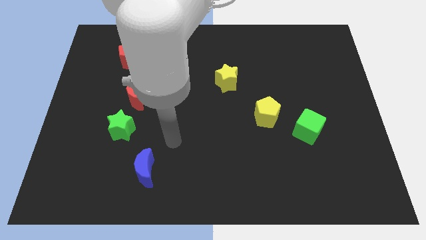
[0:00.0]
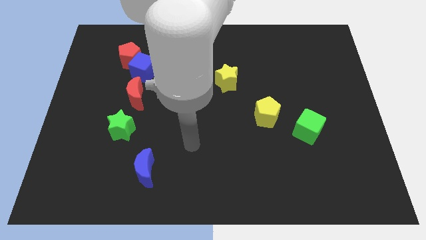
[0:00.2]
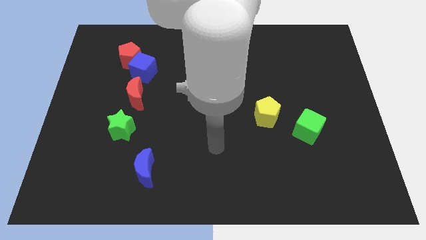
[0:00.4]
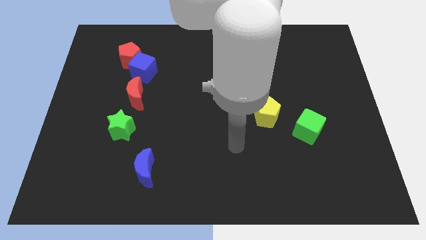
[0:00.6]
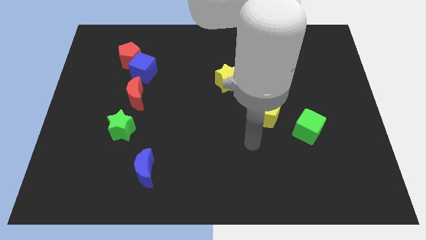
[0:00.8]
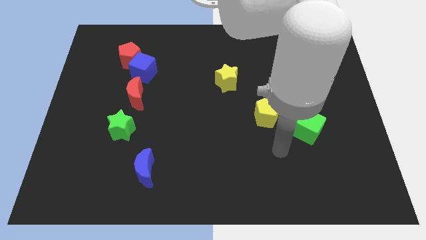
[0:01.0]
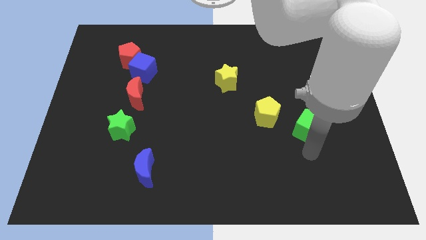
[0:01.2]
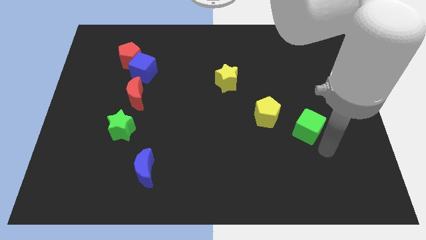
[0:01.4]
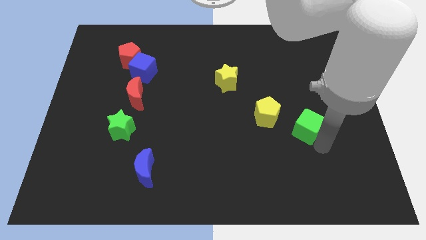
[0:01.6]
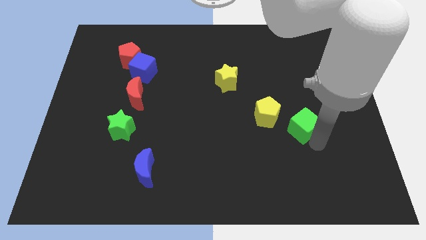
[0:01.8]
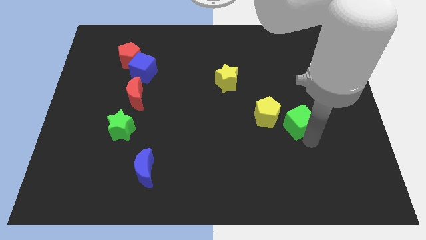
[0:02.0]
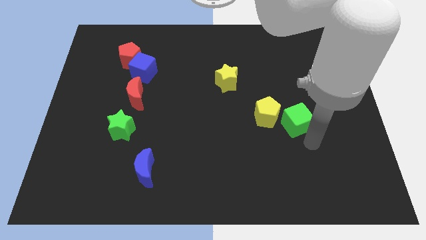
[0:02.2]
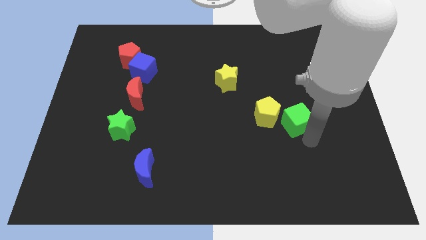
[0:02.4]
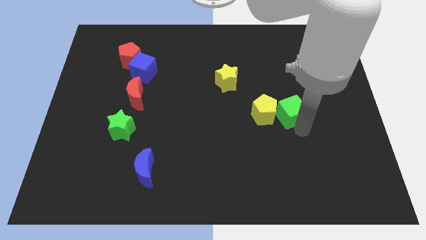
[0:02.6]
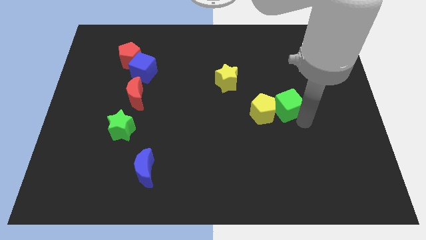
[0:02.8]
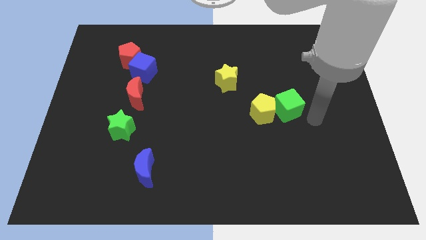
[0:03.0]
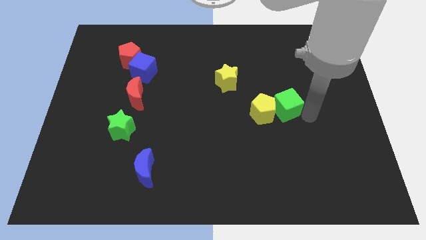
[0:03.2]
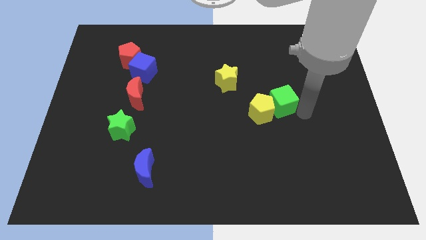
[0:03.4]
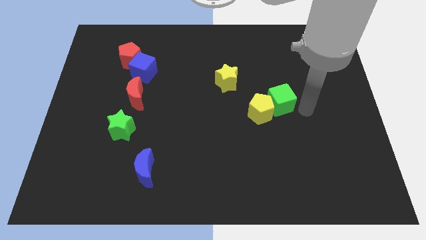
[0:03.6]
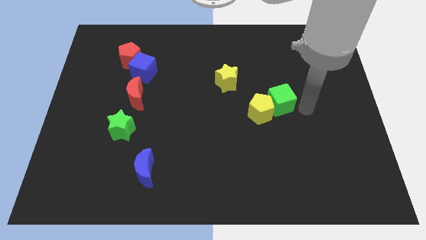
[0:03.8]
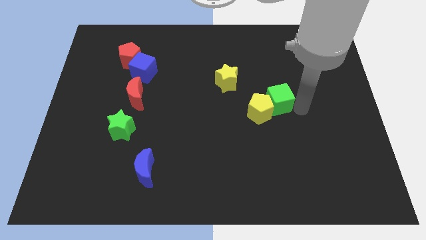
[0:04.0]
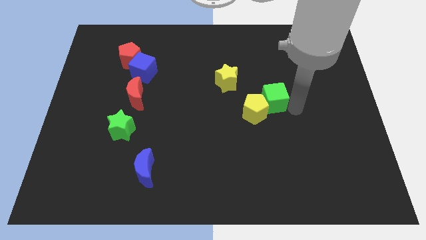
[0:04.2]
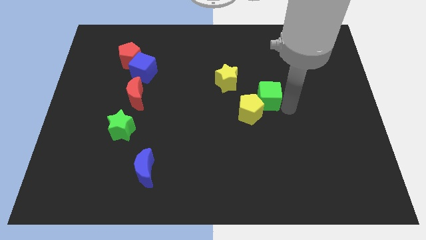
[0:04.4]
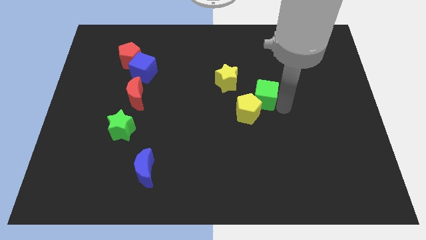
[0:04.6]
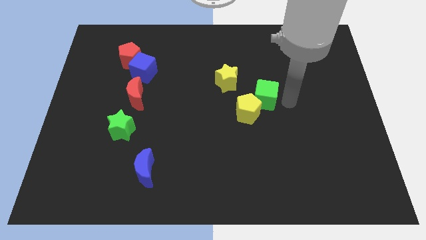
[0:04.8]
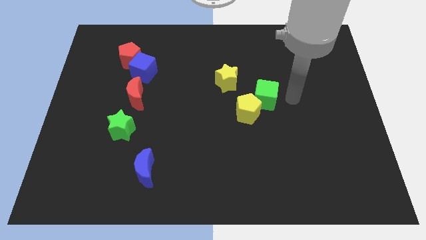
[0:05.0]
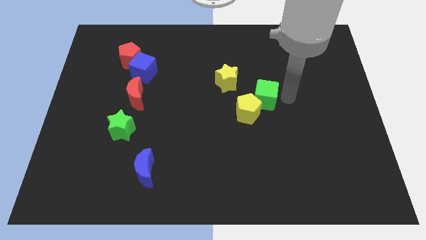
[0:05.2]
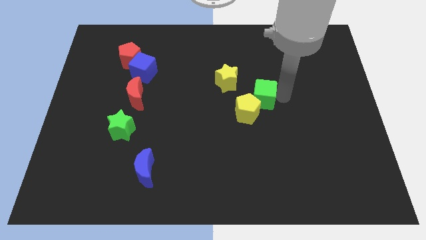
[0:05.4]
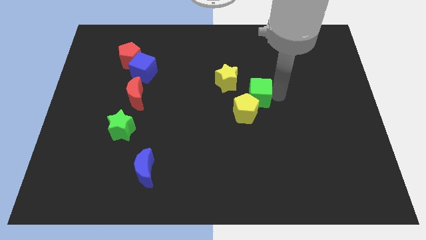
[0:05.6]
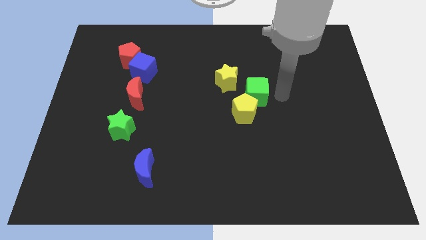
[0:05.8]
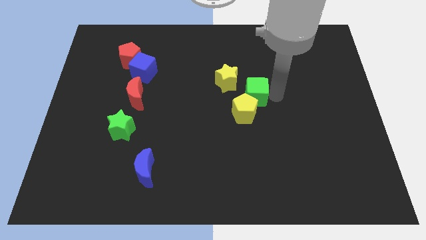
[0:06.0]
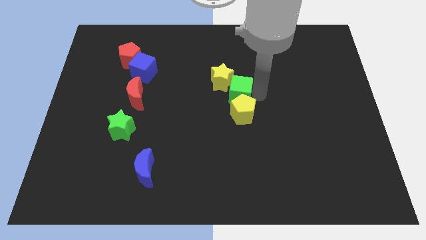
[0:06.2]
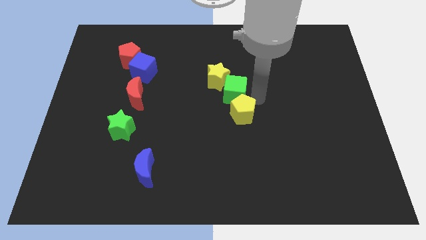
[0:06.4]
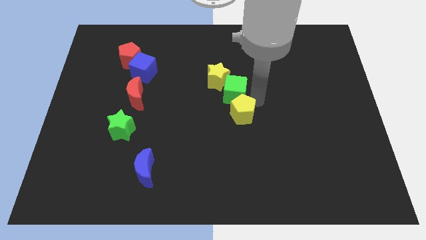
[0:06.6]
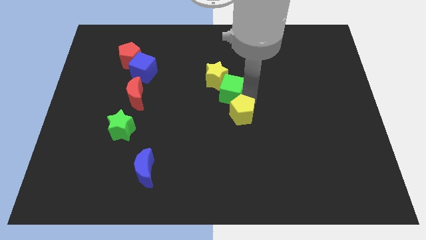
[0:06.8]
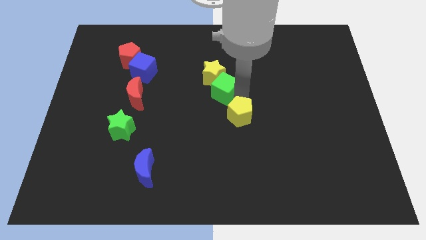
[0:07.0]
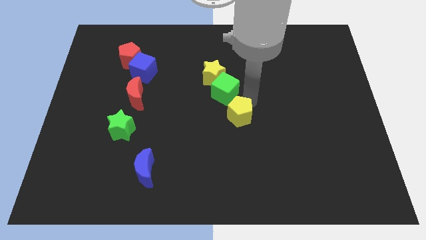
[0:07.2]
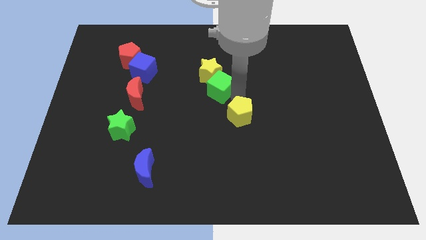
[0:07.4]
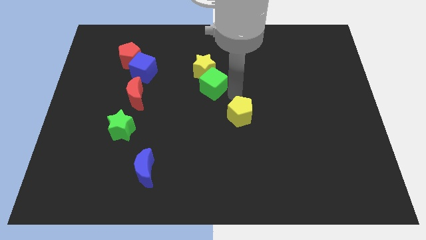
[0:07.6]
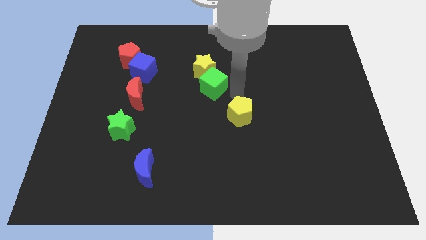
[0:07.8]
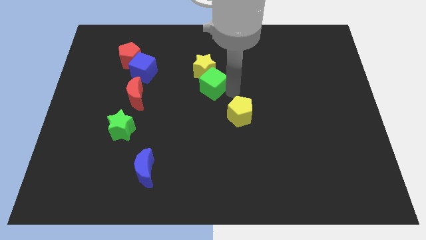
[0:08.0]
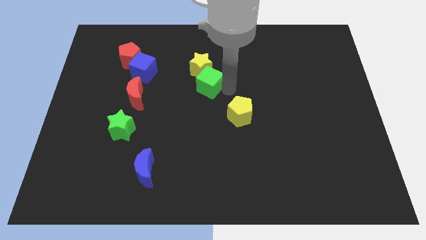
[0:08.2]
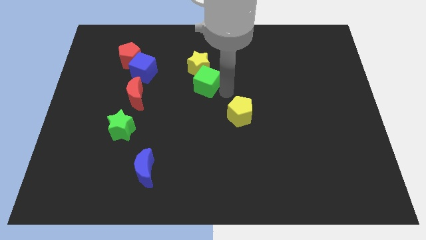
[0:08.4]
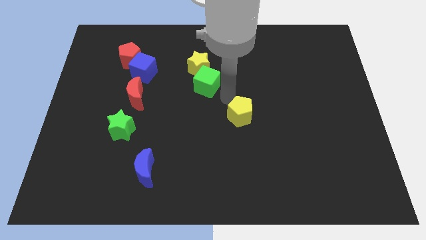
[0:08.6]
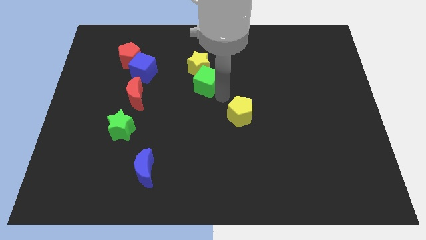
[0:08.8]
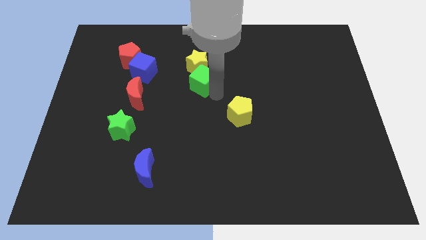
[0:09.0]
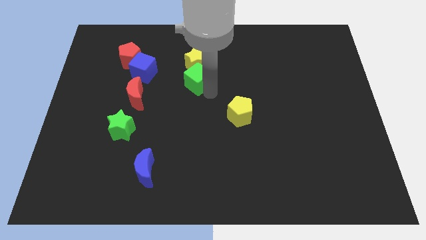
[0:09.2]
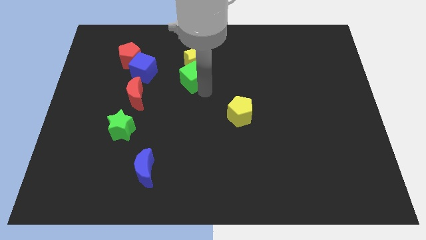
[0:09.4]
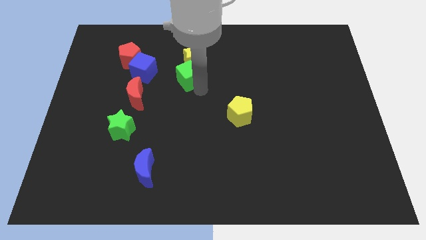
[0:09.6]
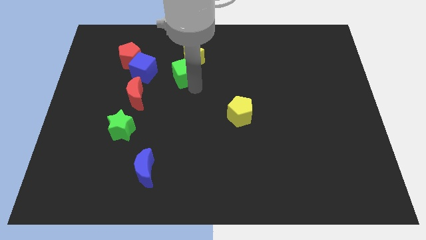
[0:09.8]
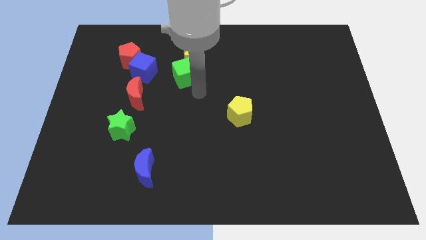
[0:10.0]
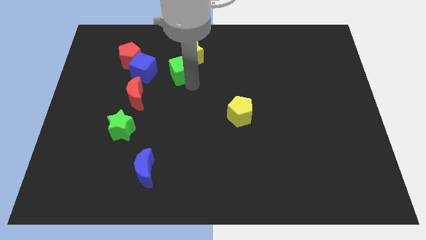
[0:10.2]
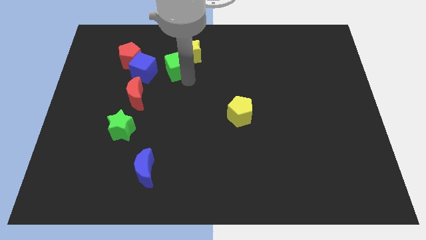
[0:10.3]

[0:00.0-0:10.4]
put the green cube right of the red pentagon

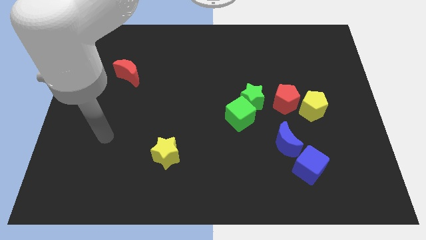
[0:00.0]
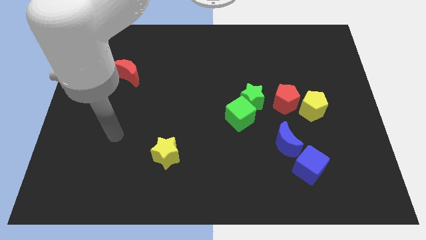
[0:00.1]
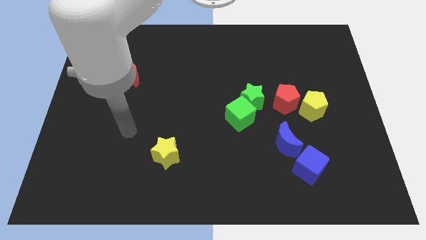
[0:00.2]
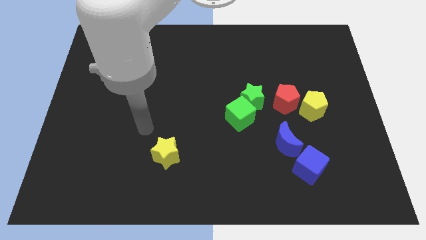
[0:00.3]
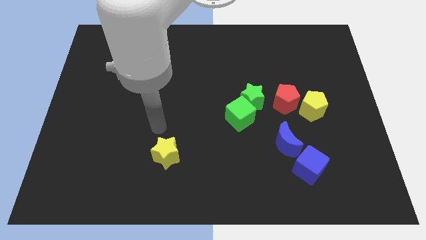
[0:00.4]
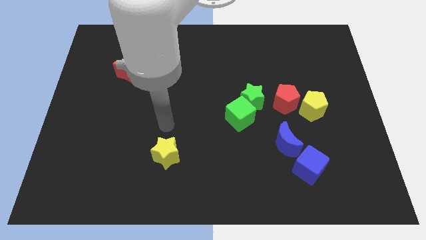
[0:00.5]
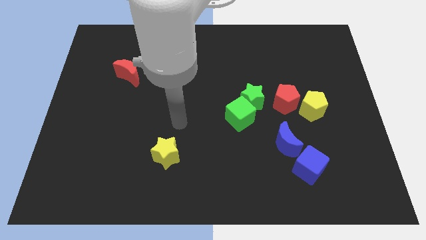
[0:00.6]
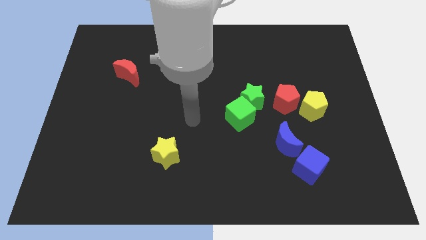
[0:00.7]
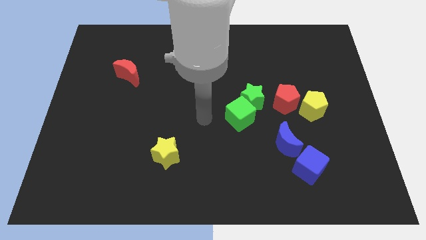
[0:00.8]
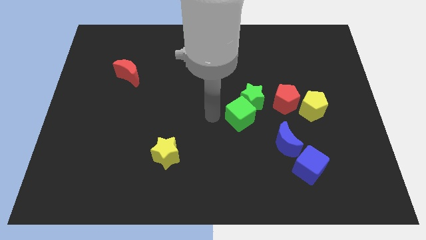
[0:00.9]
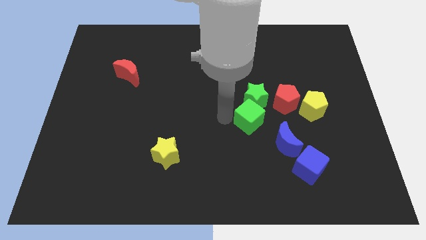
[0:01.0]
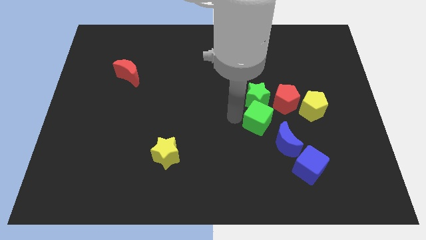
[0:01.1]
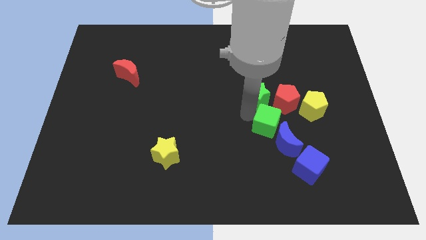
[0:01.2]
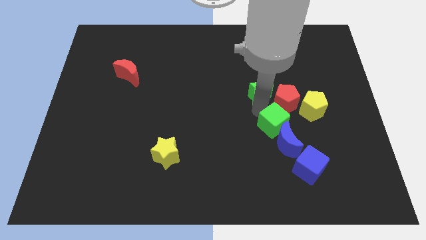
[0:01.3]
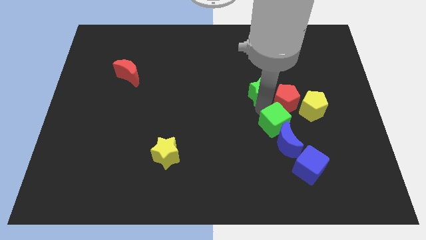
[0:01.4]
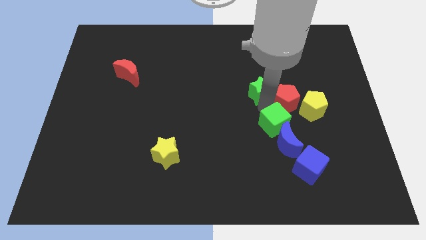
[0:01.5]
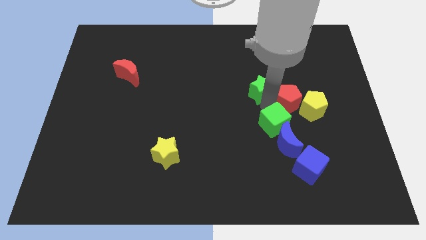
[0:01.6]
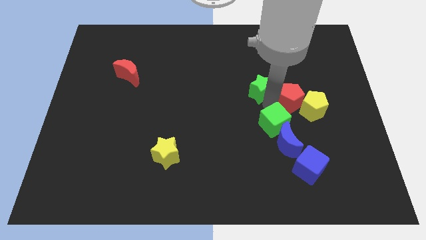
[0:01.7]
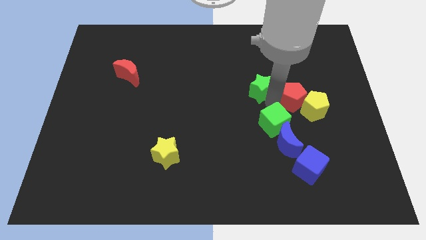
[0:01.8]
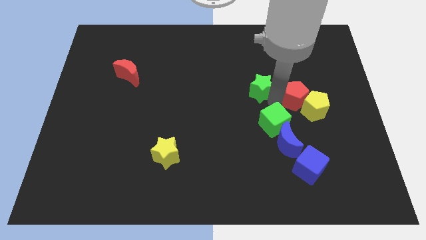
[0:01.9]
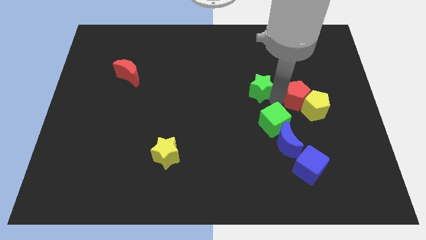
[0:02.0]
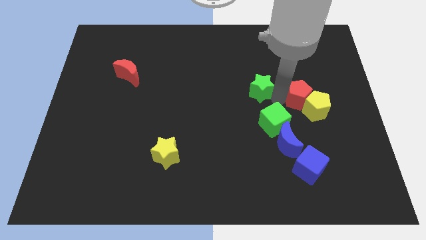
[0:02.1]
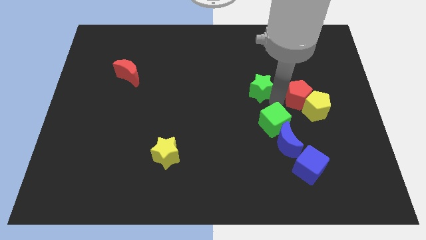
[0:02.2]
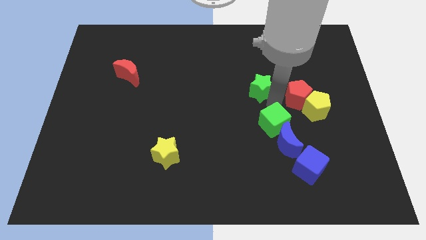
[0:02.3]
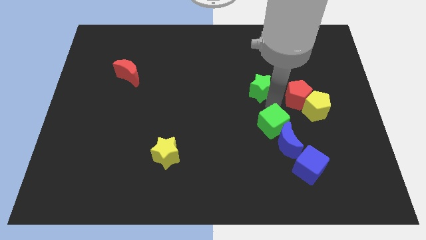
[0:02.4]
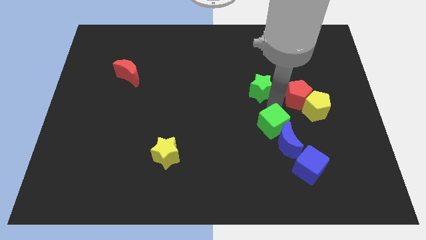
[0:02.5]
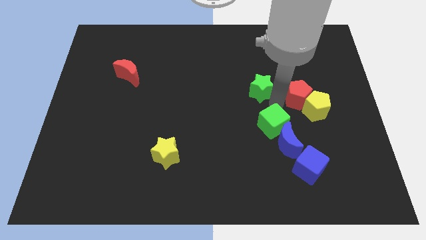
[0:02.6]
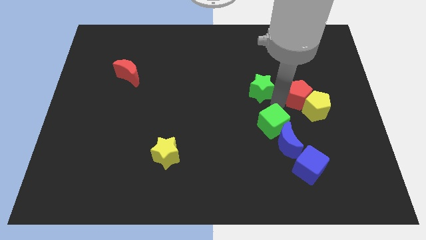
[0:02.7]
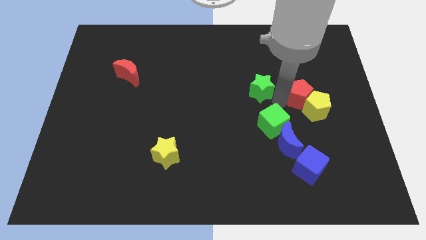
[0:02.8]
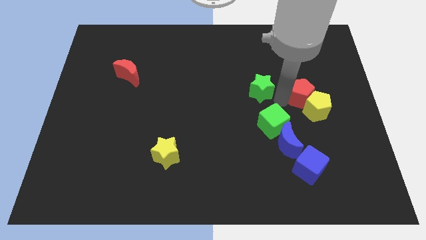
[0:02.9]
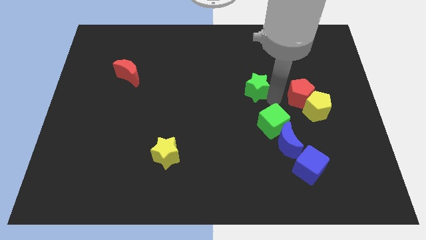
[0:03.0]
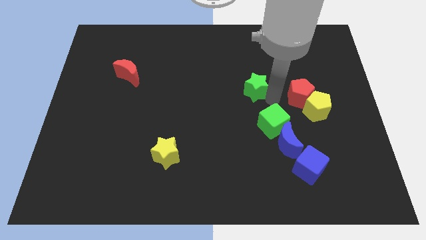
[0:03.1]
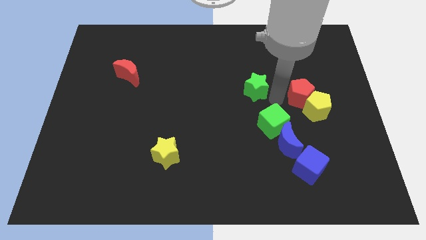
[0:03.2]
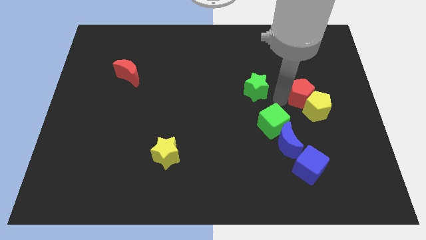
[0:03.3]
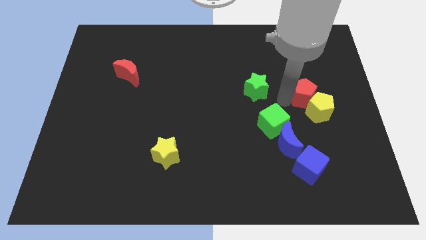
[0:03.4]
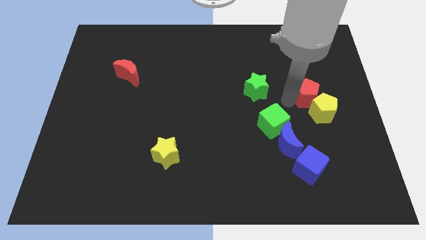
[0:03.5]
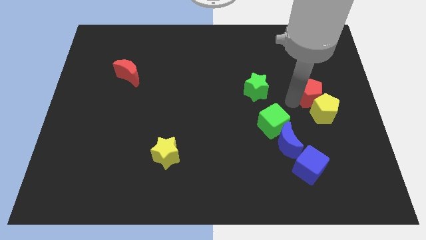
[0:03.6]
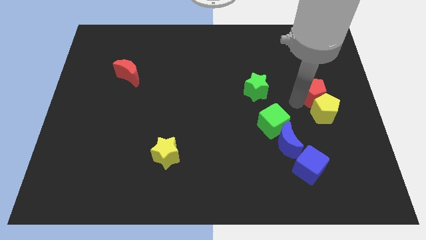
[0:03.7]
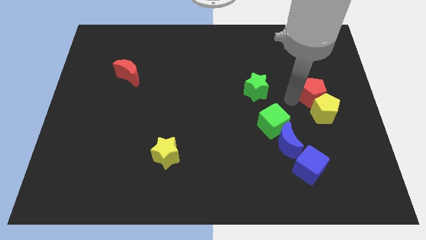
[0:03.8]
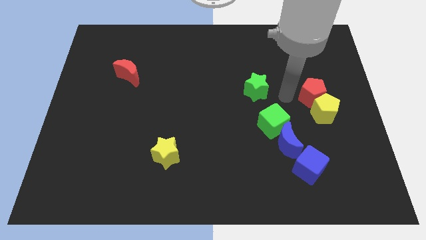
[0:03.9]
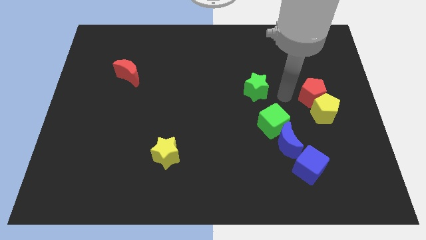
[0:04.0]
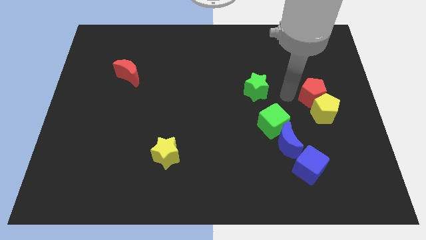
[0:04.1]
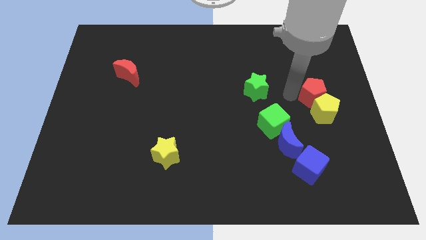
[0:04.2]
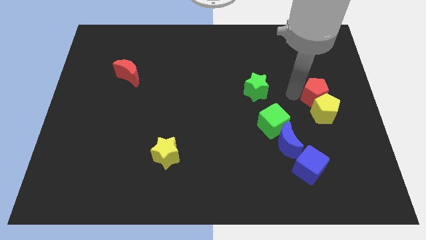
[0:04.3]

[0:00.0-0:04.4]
slide the red pentagon diagonally up and to the right of the yellow pentagon
